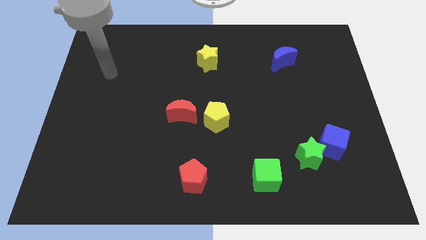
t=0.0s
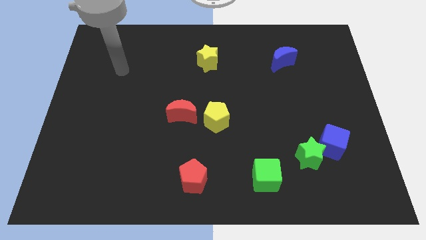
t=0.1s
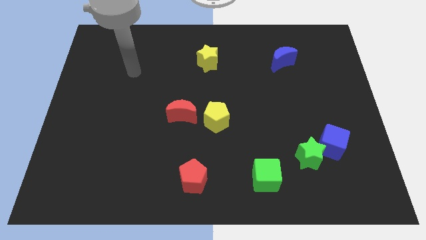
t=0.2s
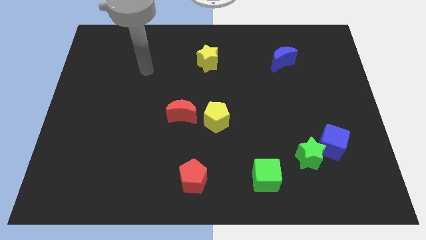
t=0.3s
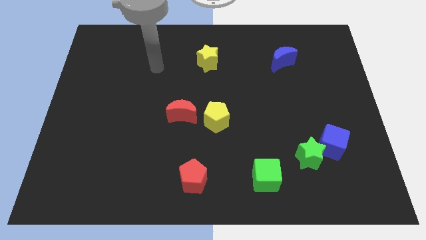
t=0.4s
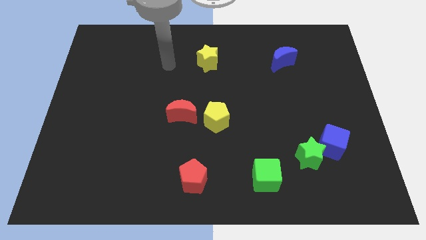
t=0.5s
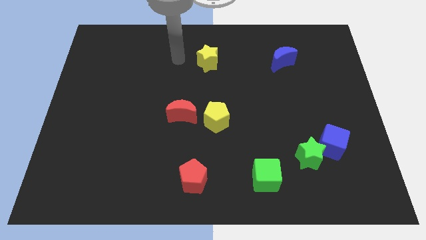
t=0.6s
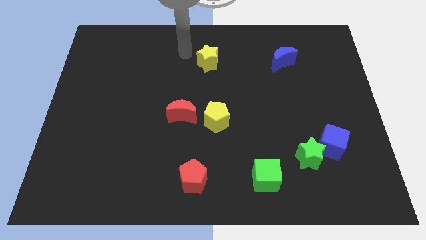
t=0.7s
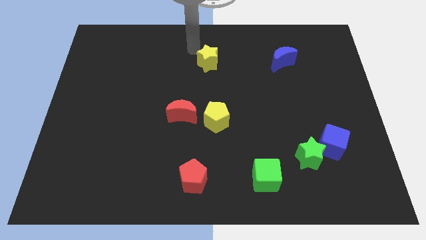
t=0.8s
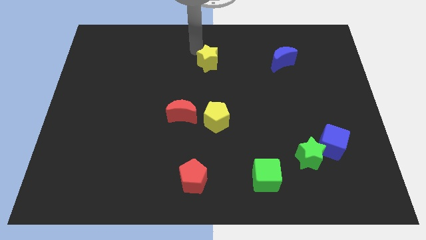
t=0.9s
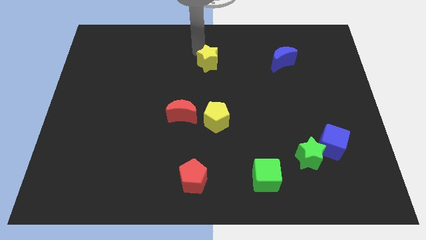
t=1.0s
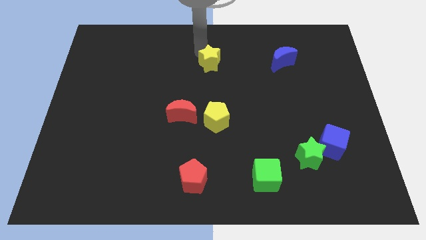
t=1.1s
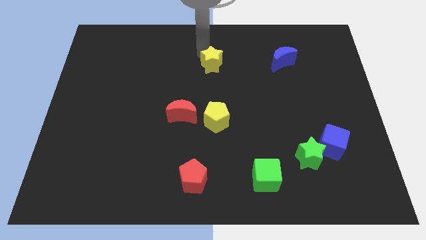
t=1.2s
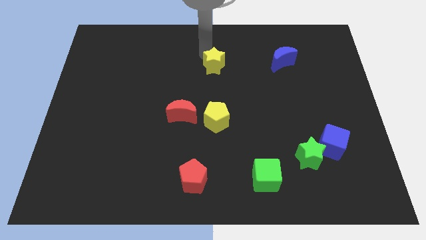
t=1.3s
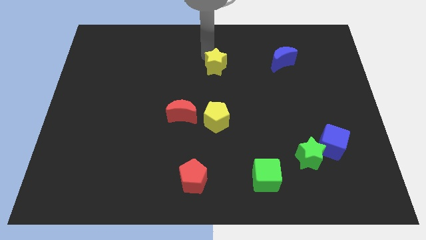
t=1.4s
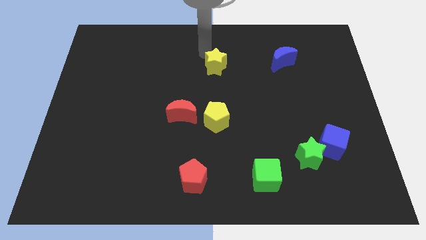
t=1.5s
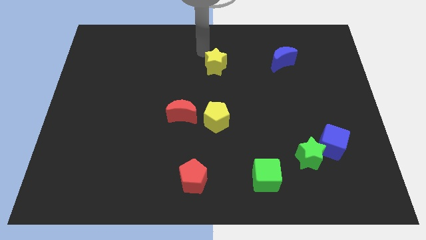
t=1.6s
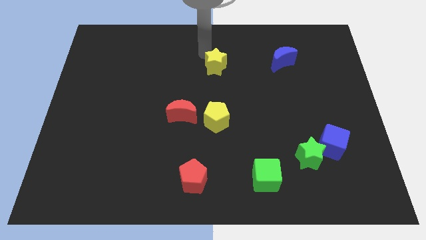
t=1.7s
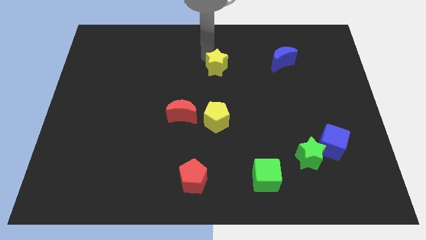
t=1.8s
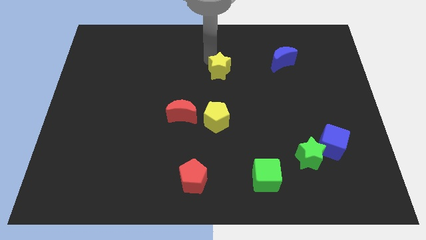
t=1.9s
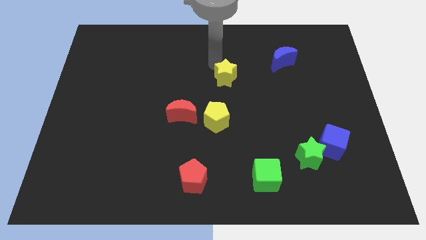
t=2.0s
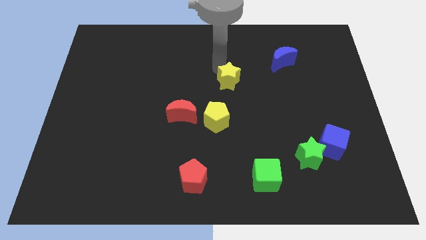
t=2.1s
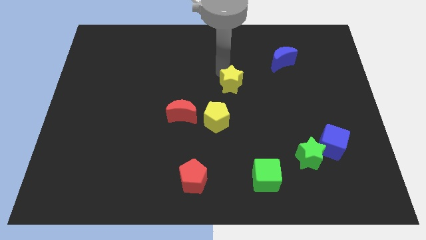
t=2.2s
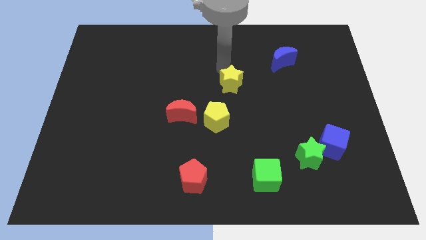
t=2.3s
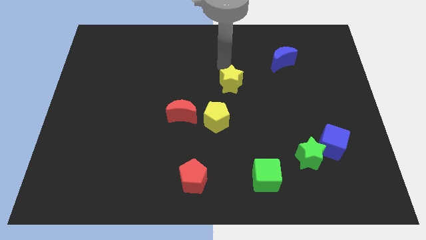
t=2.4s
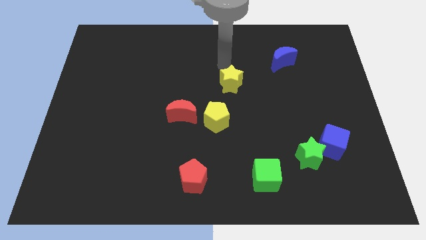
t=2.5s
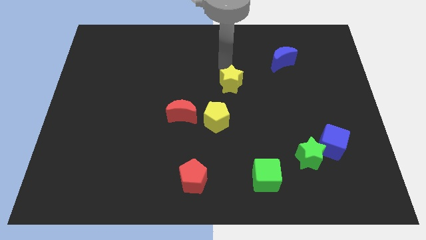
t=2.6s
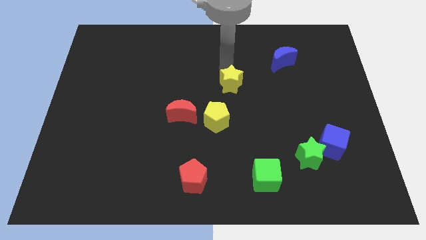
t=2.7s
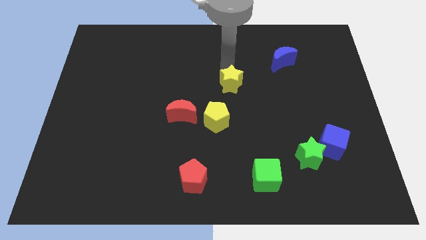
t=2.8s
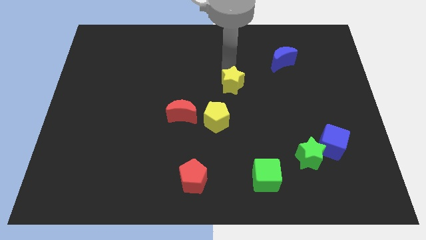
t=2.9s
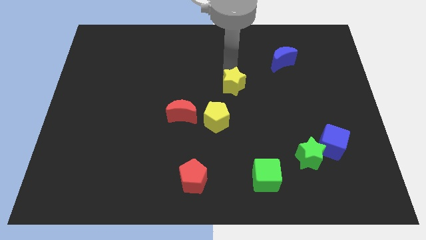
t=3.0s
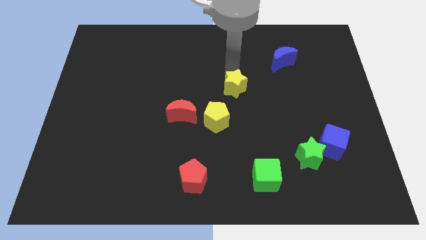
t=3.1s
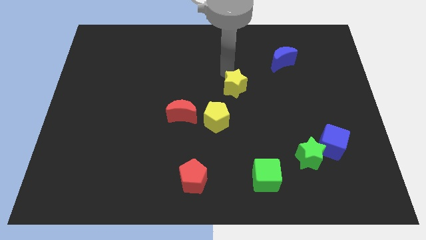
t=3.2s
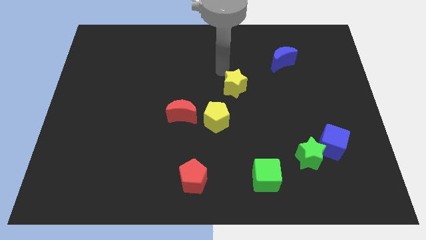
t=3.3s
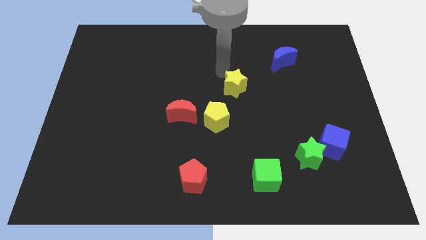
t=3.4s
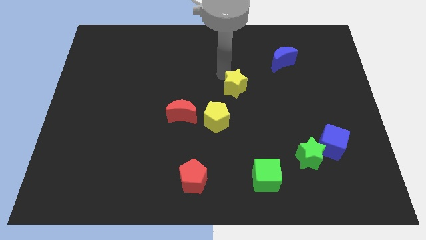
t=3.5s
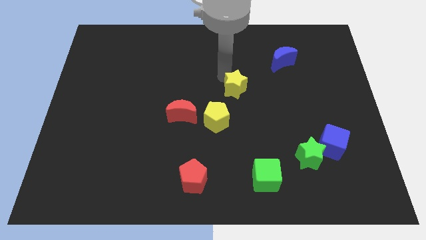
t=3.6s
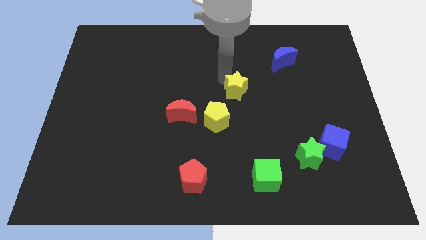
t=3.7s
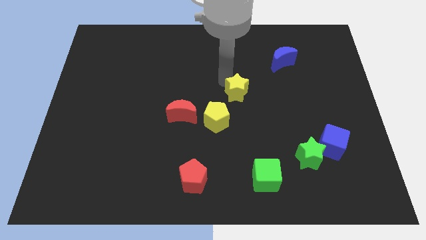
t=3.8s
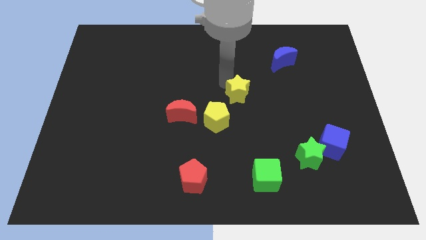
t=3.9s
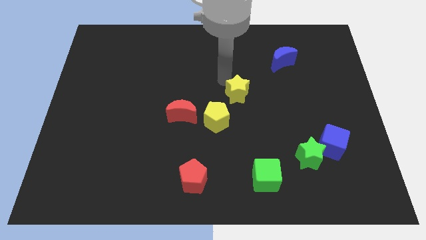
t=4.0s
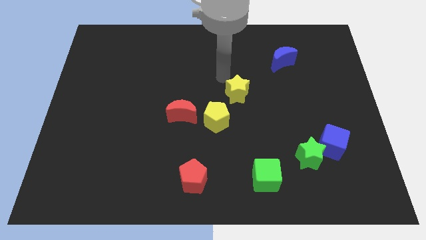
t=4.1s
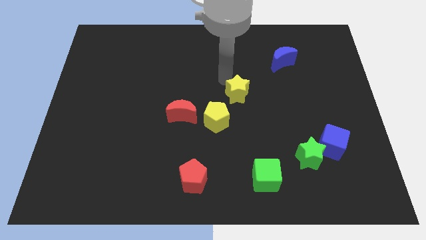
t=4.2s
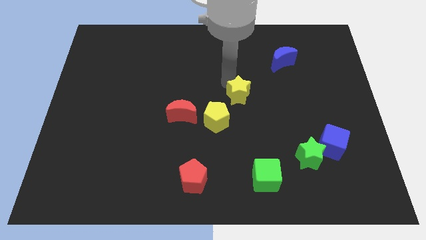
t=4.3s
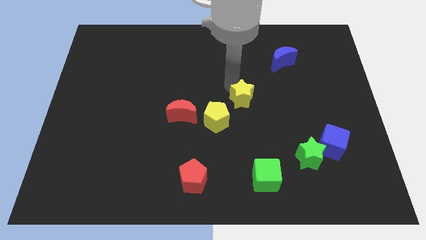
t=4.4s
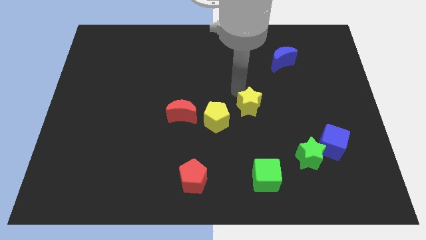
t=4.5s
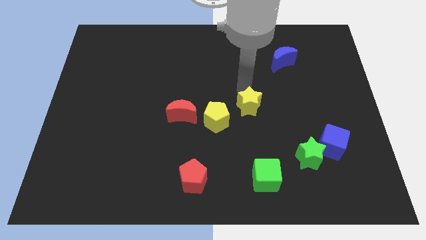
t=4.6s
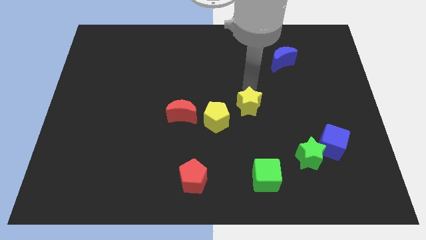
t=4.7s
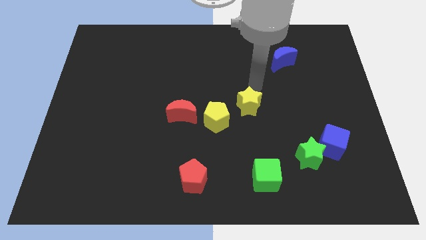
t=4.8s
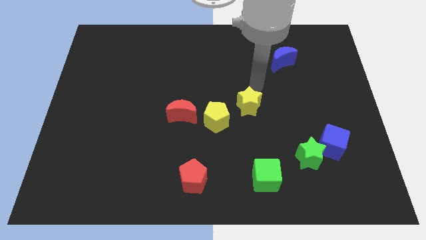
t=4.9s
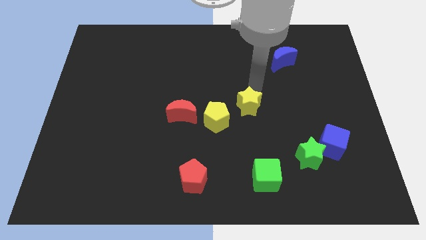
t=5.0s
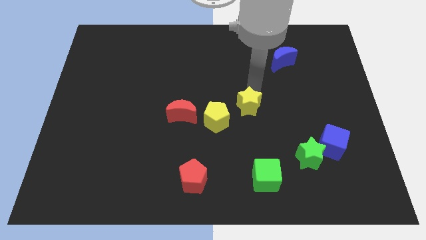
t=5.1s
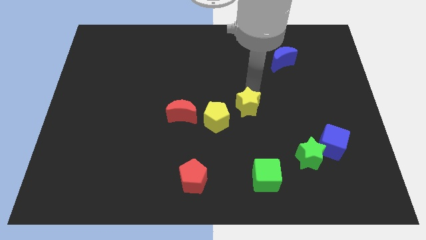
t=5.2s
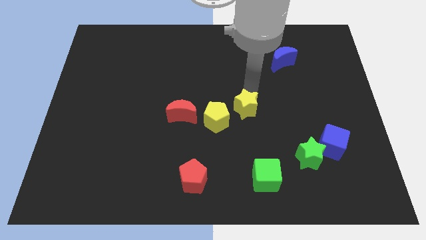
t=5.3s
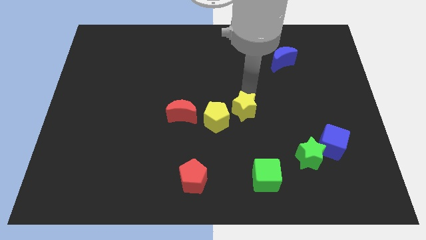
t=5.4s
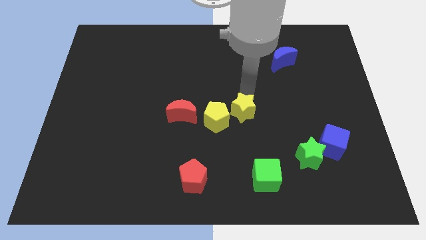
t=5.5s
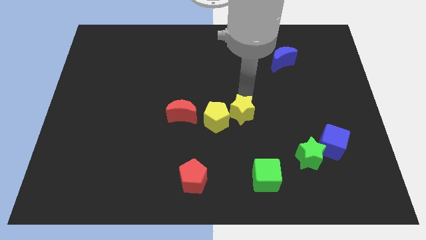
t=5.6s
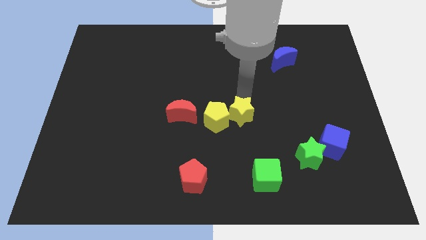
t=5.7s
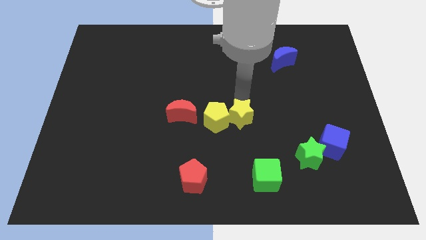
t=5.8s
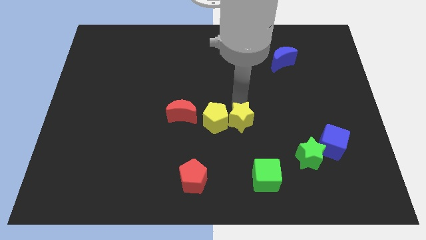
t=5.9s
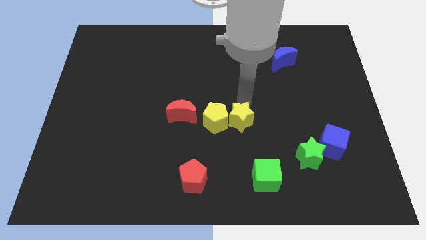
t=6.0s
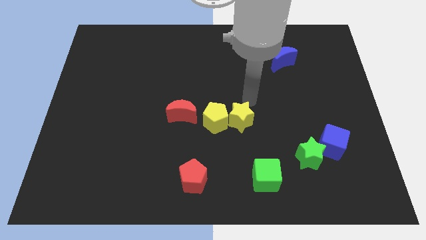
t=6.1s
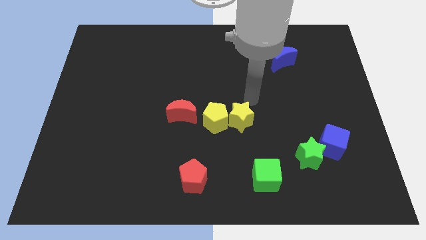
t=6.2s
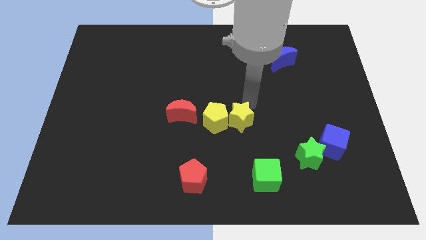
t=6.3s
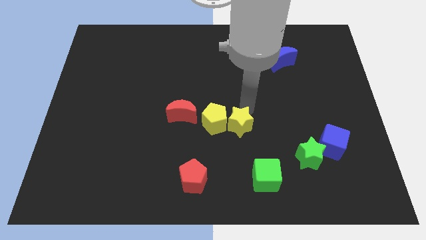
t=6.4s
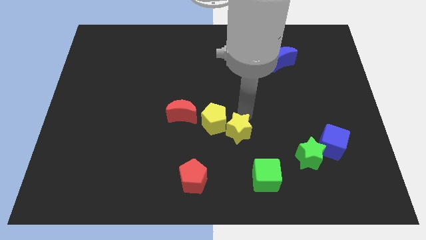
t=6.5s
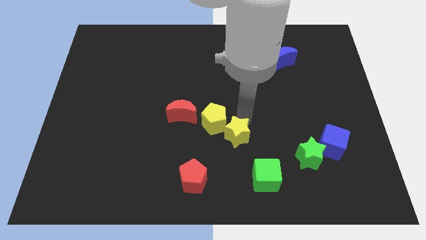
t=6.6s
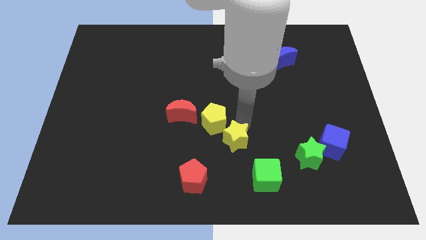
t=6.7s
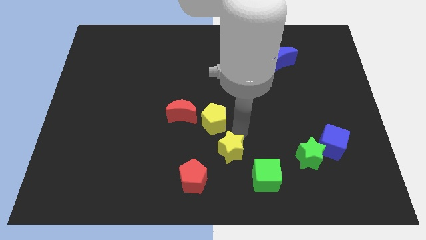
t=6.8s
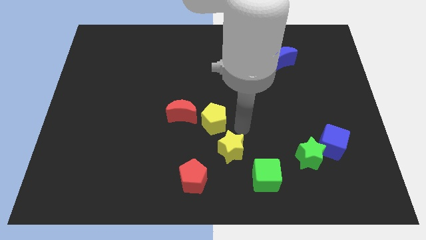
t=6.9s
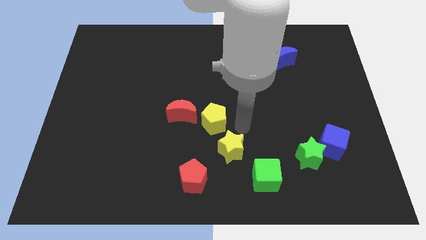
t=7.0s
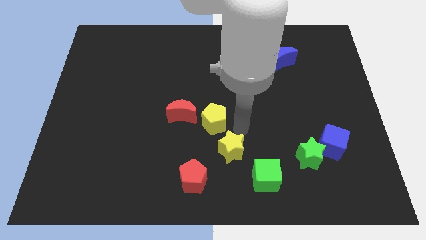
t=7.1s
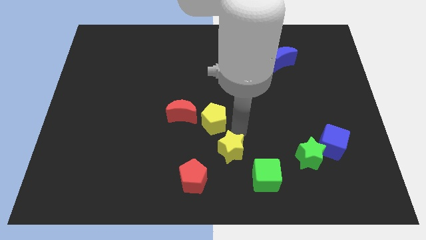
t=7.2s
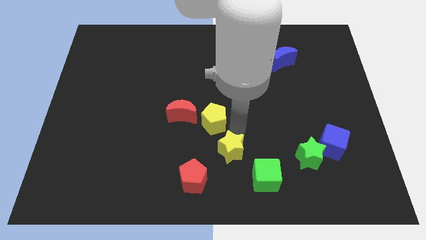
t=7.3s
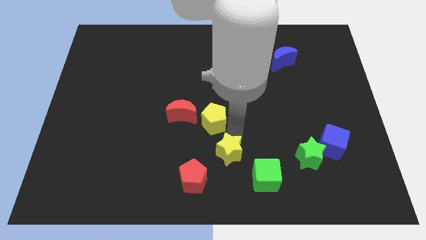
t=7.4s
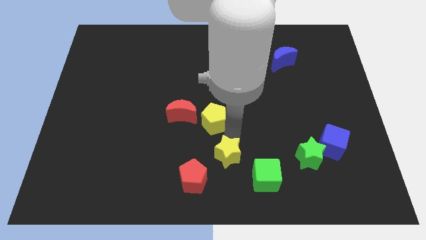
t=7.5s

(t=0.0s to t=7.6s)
put the yellow star to the bottom
